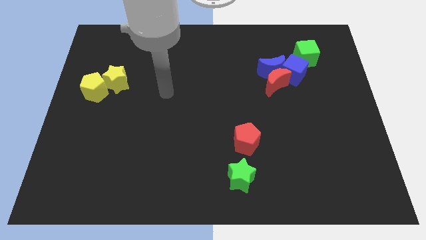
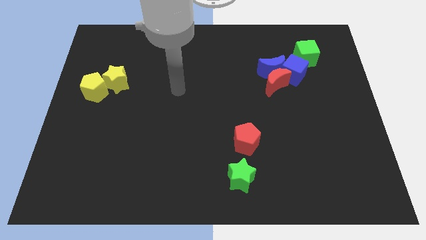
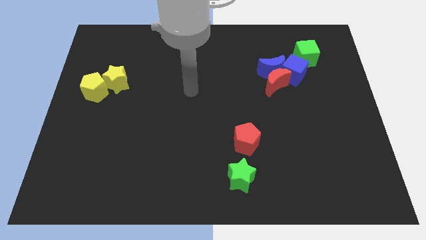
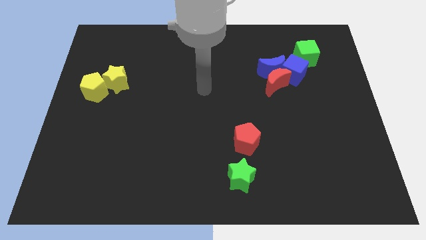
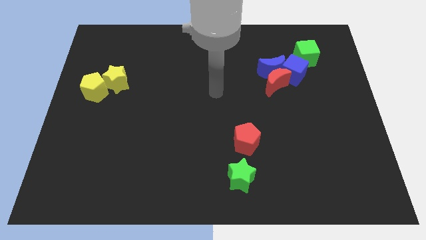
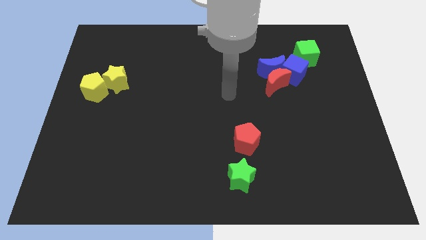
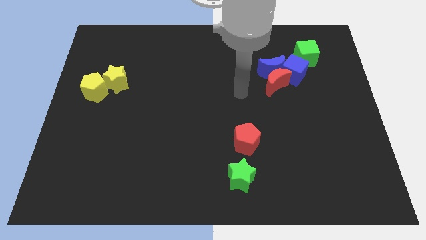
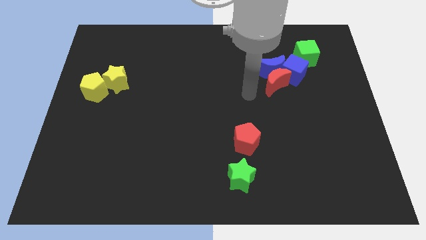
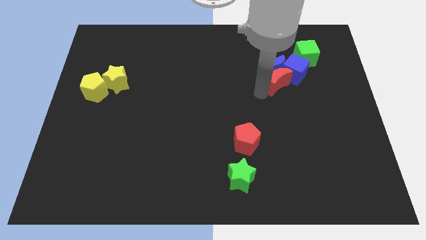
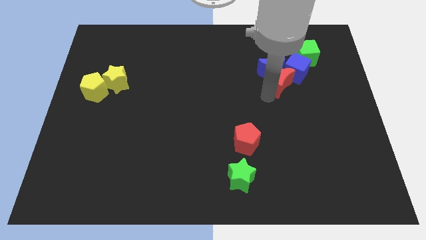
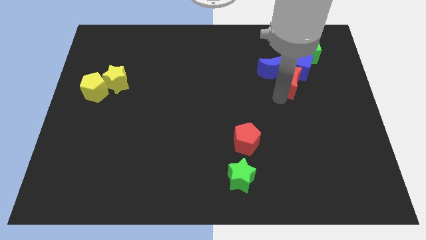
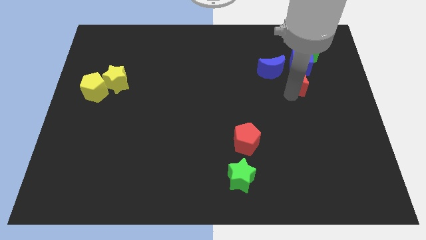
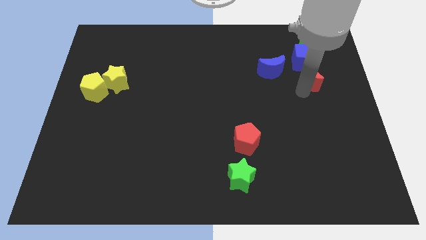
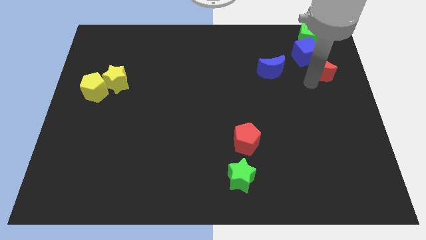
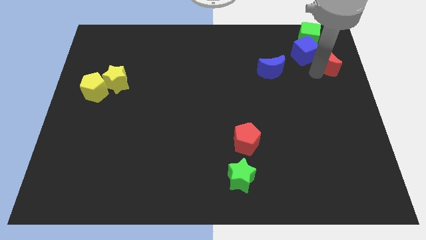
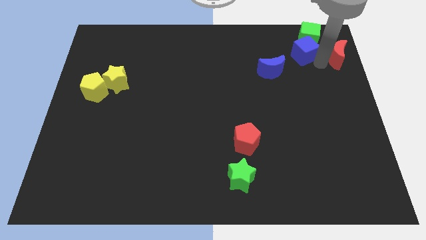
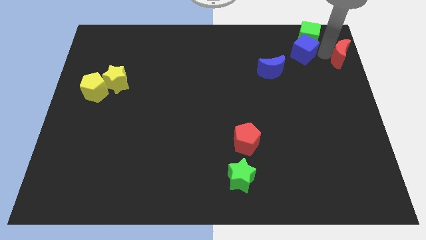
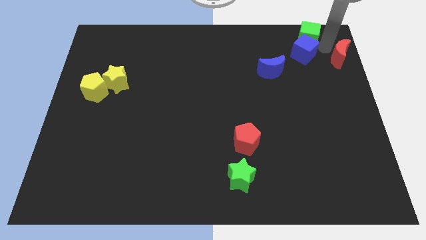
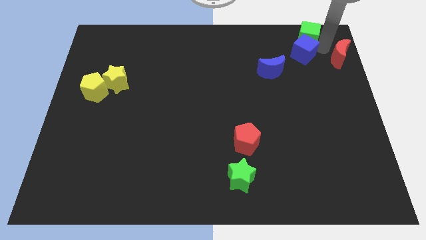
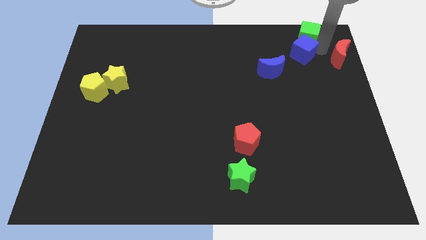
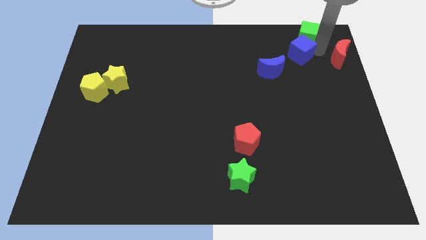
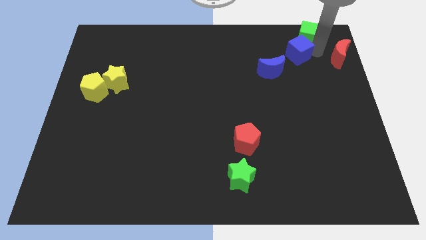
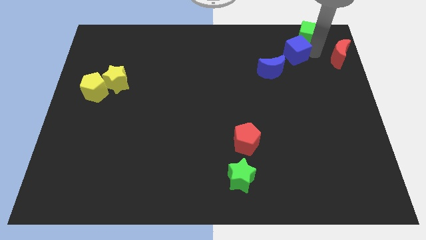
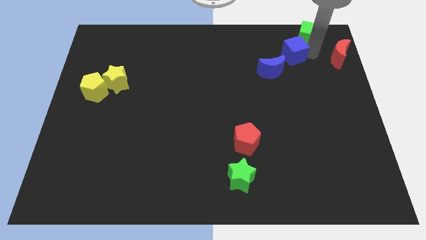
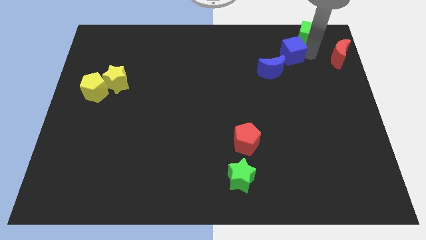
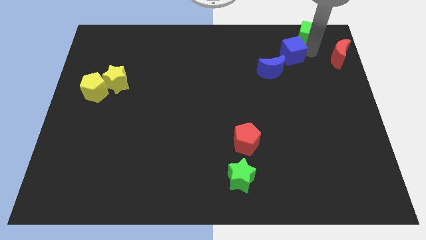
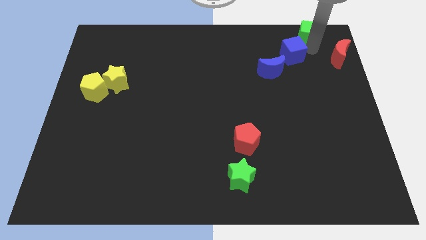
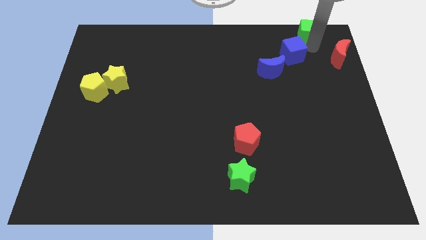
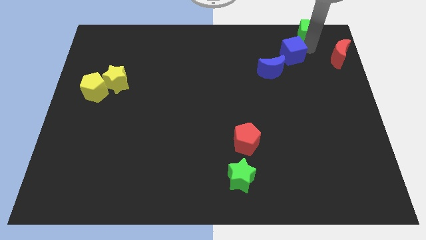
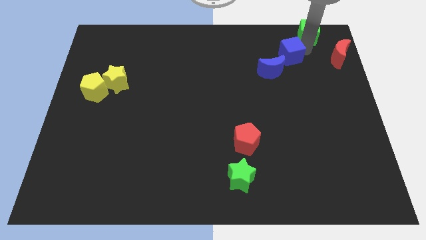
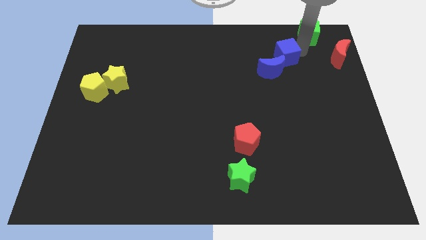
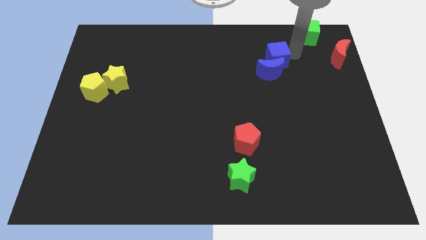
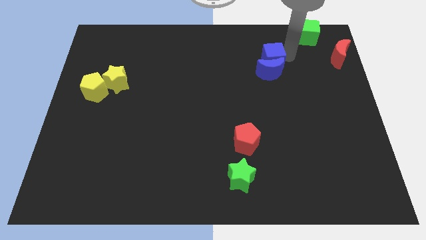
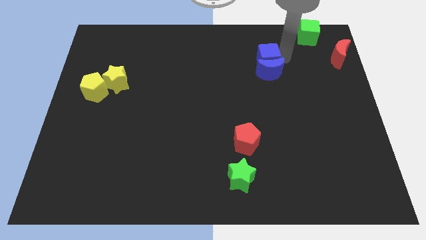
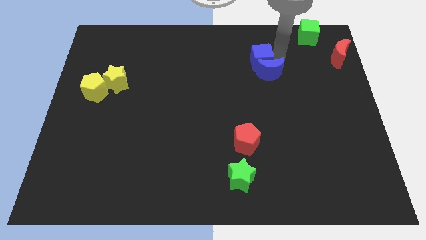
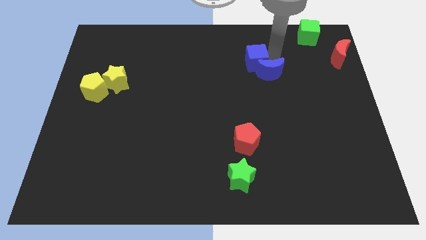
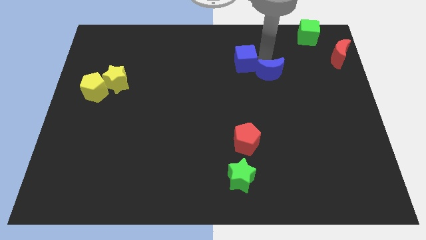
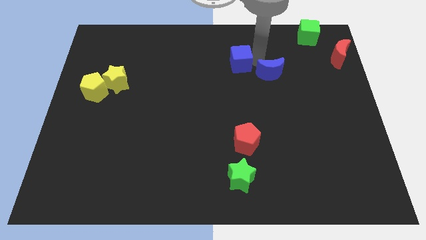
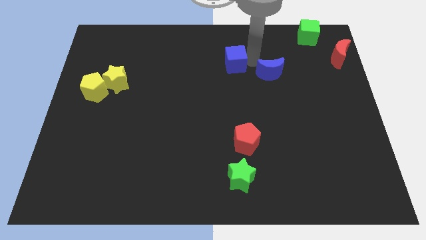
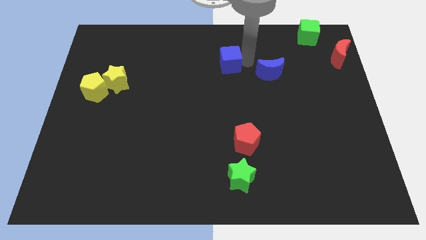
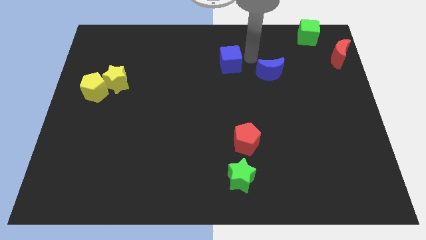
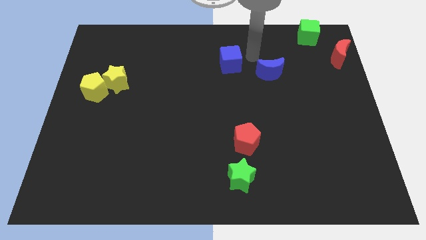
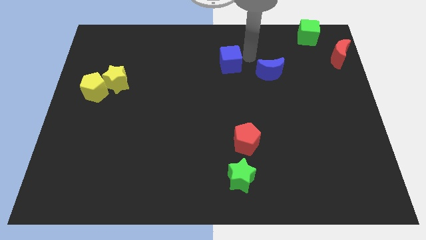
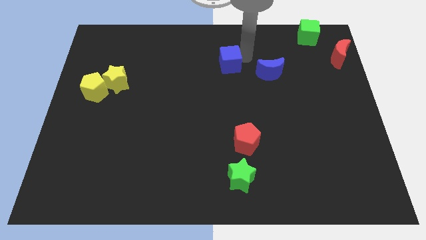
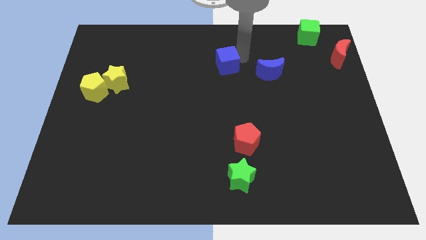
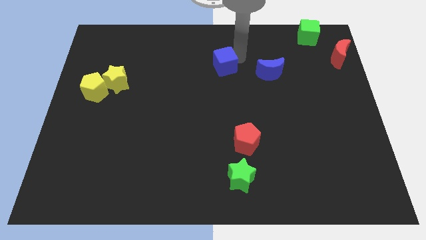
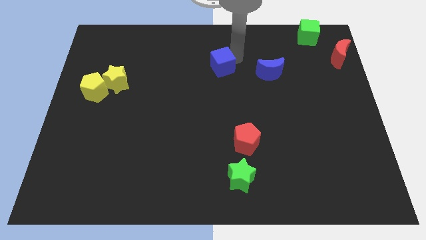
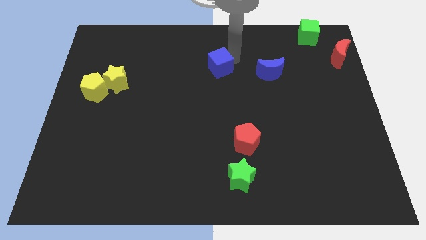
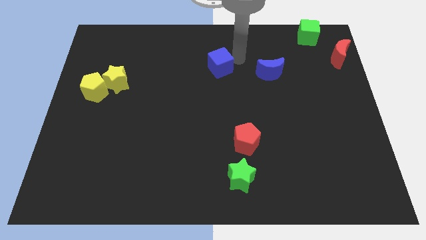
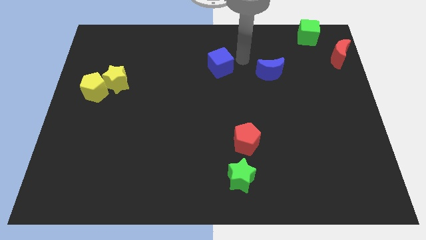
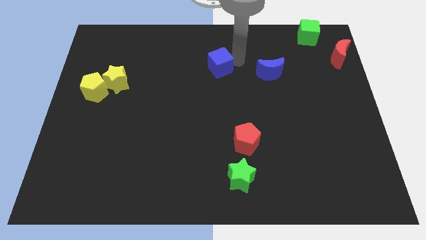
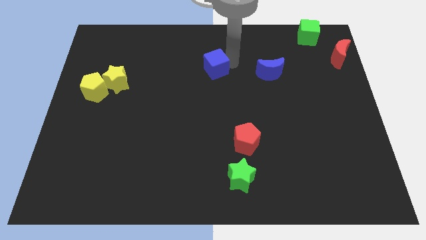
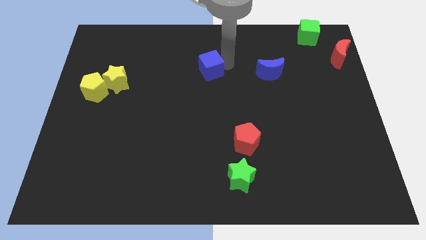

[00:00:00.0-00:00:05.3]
push the blue cube left

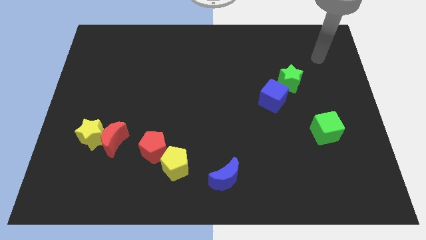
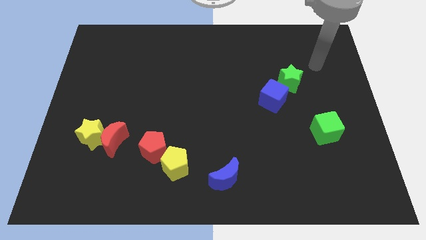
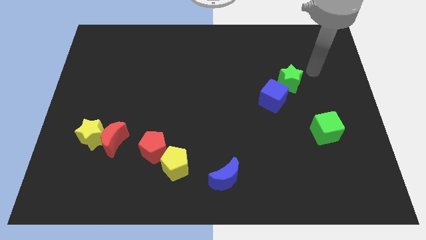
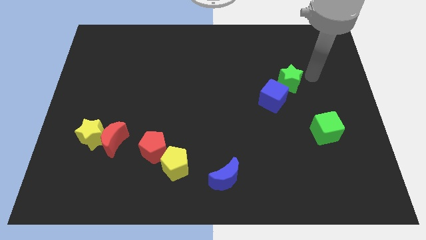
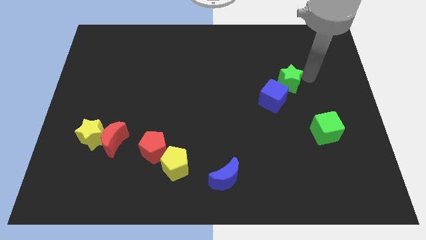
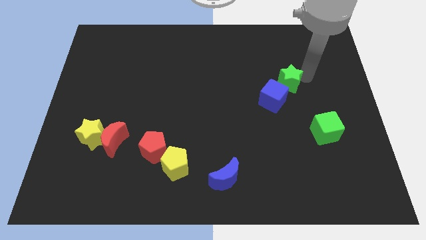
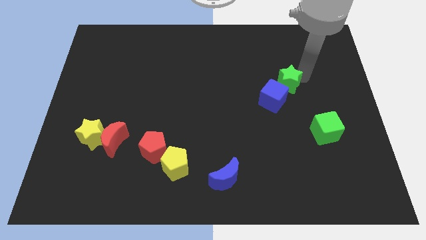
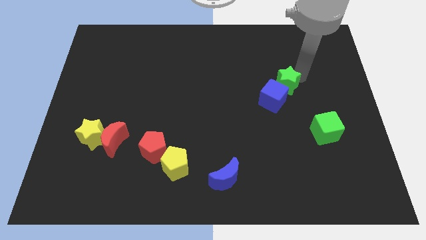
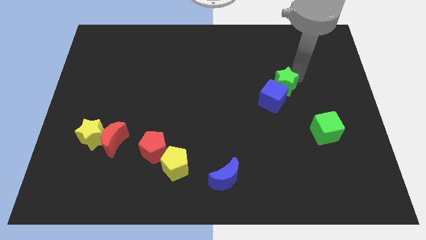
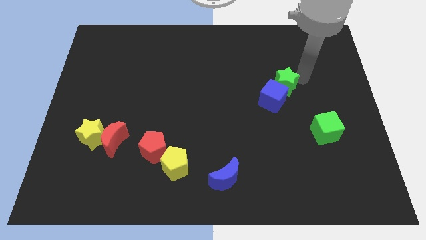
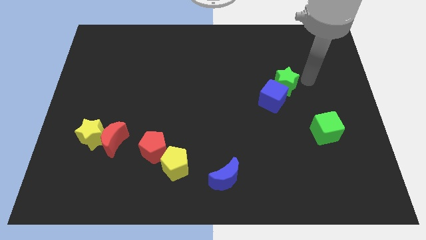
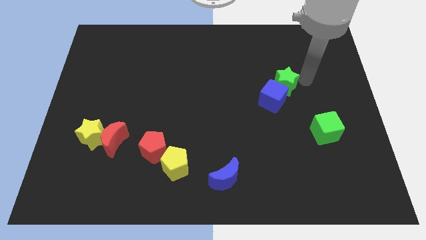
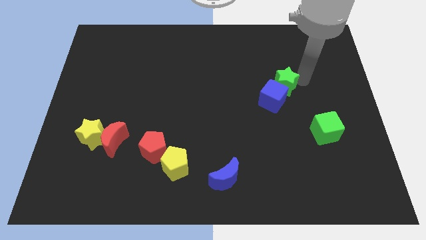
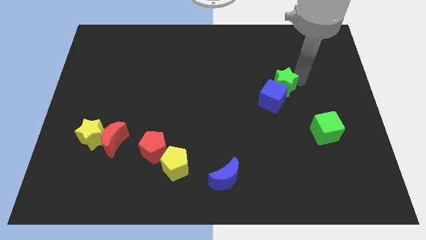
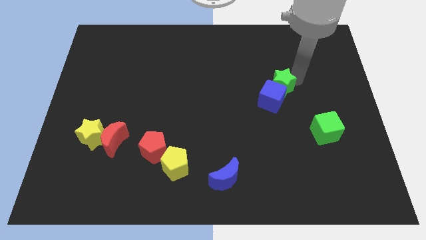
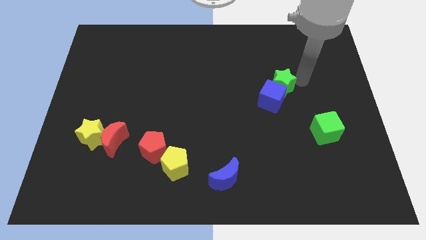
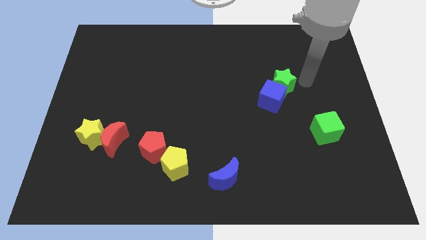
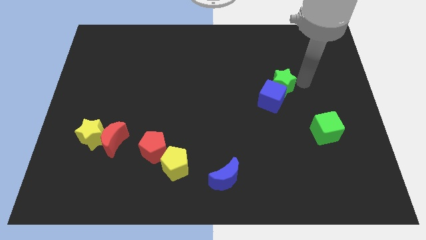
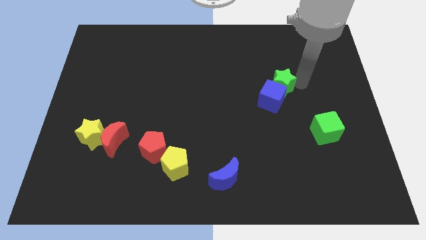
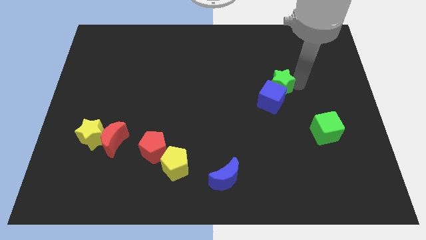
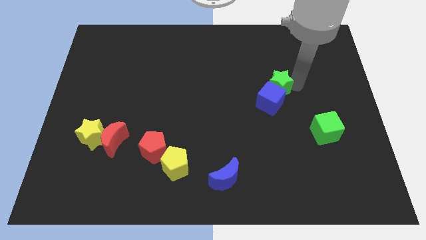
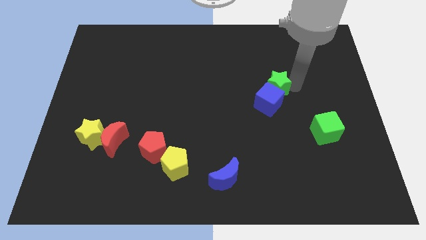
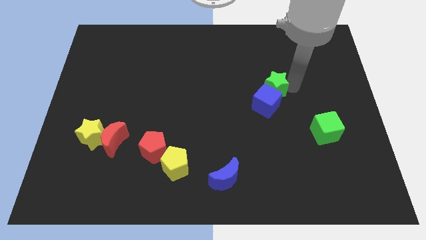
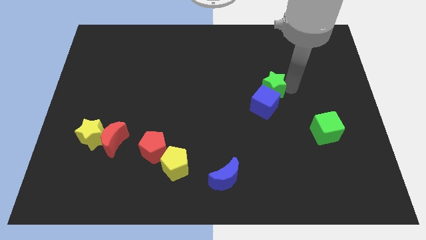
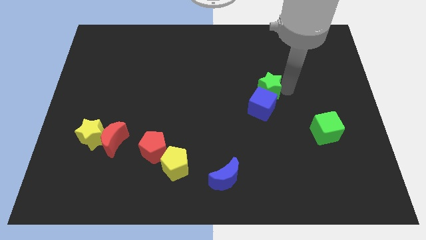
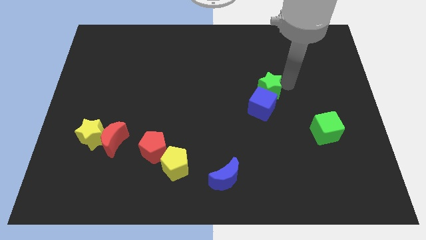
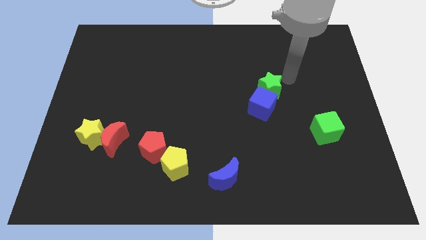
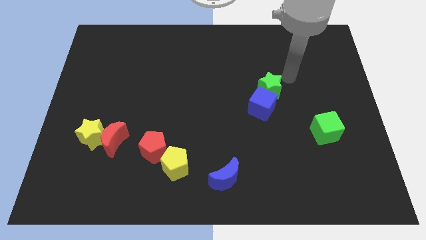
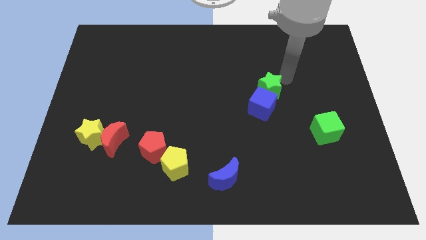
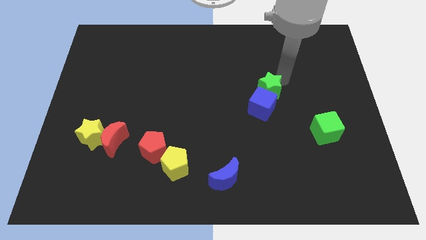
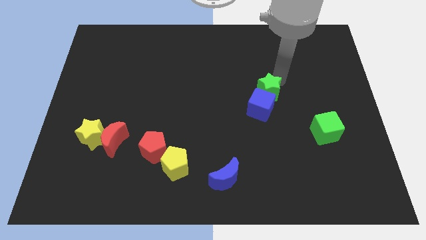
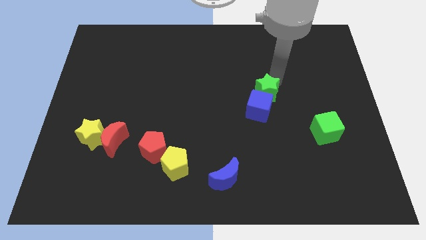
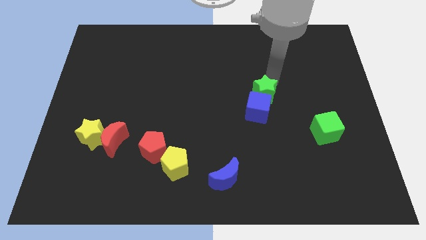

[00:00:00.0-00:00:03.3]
move the green star downwards and left slightly
